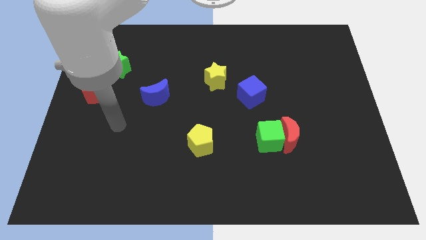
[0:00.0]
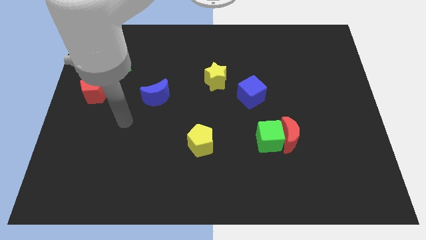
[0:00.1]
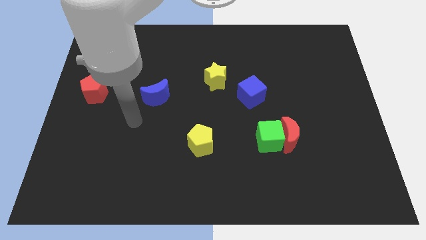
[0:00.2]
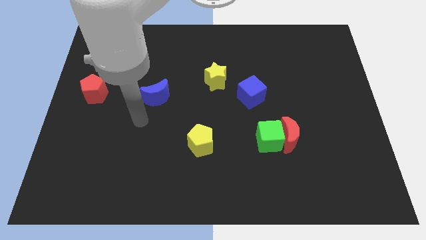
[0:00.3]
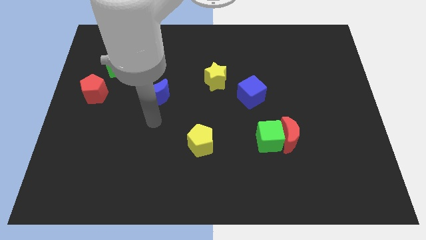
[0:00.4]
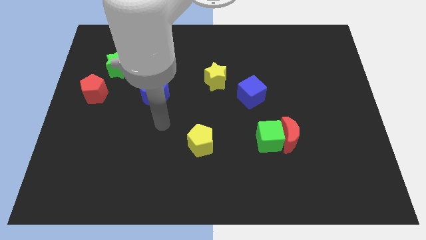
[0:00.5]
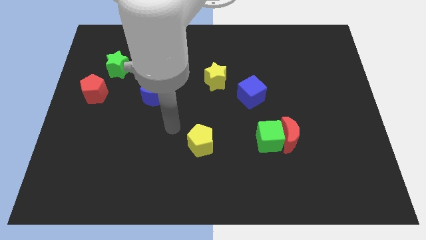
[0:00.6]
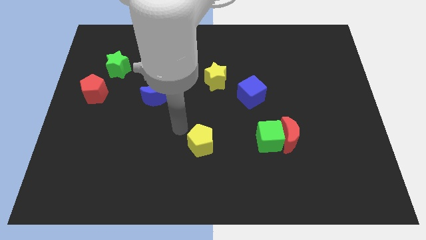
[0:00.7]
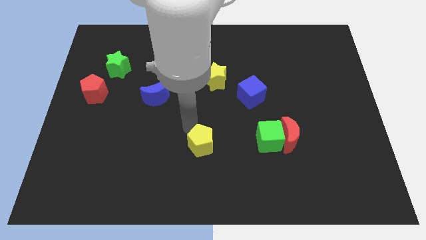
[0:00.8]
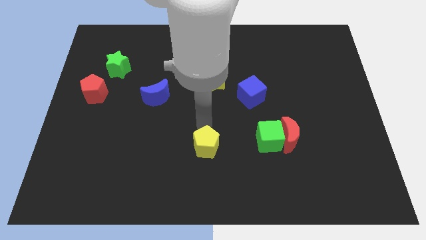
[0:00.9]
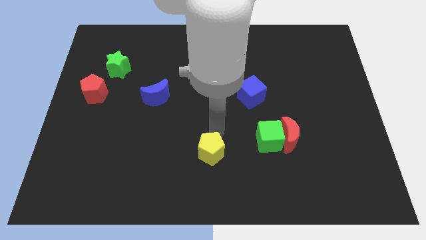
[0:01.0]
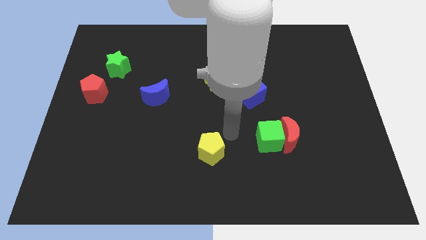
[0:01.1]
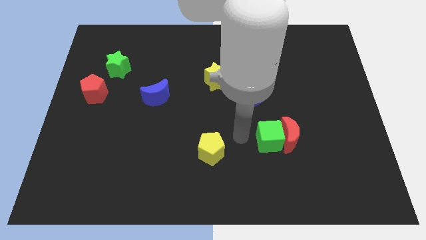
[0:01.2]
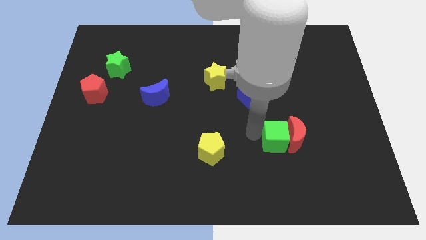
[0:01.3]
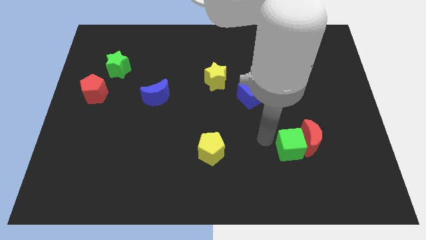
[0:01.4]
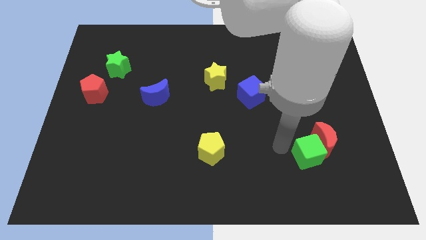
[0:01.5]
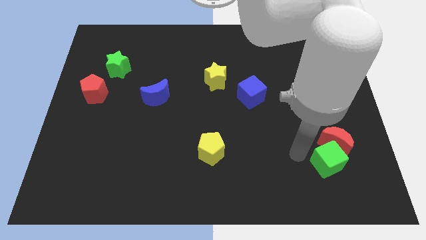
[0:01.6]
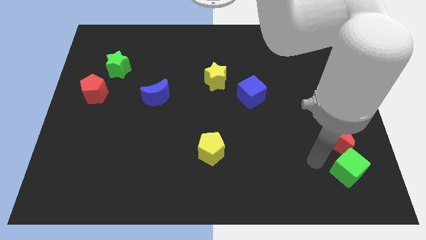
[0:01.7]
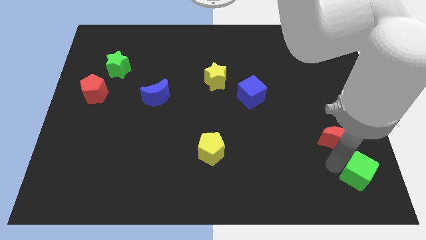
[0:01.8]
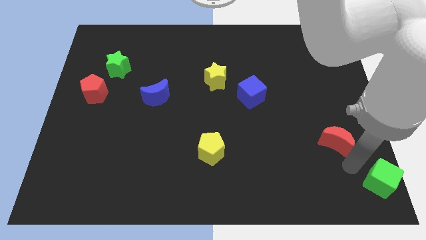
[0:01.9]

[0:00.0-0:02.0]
separate the red moon from the green cube

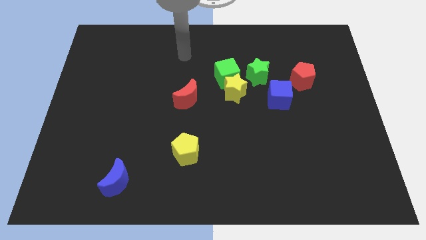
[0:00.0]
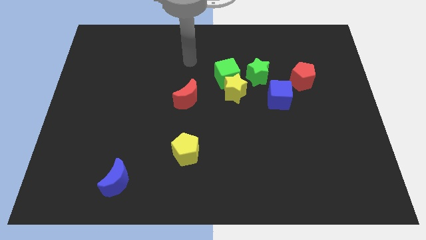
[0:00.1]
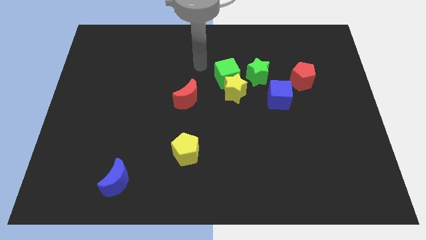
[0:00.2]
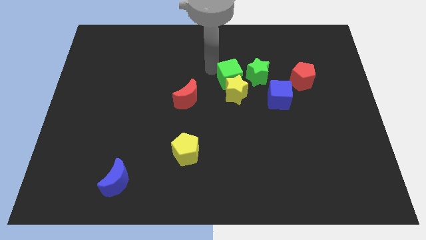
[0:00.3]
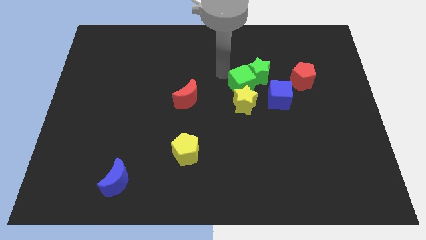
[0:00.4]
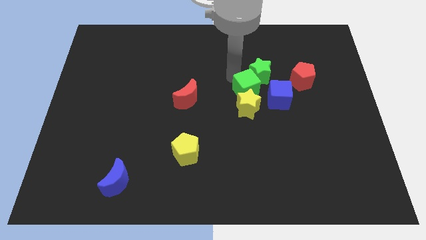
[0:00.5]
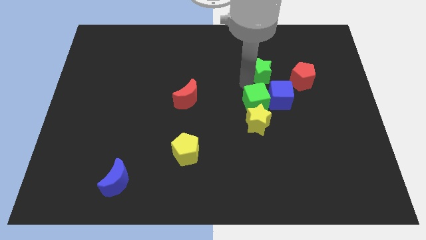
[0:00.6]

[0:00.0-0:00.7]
move the yellow star away from the green cube and green star

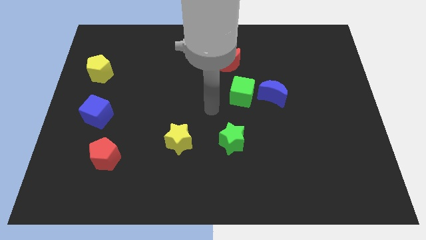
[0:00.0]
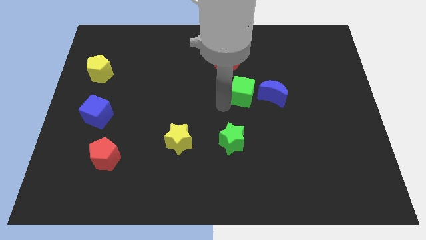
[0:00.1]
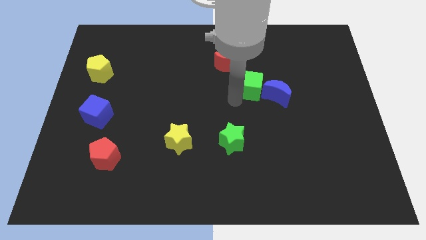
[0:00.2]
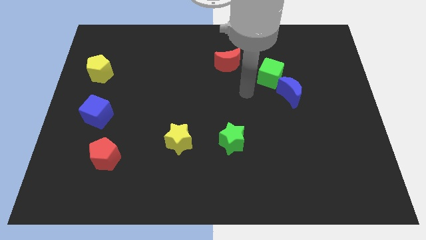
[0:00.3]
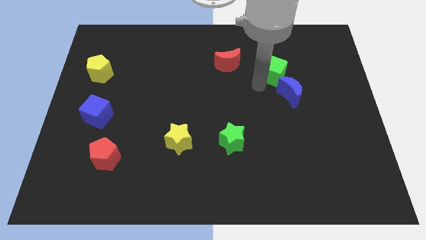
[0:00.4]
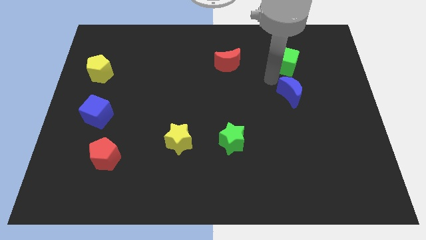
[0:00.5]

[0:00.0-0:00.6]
separate the blue moon from the green cube

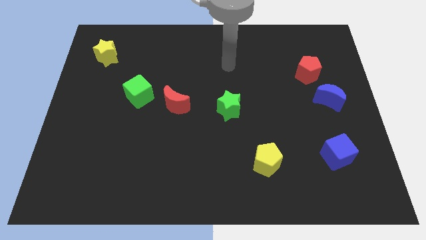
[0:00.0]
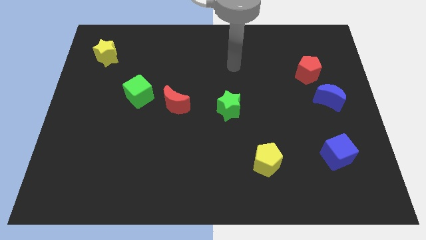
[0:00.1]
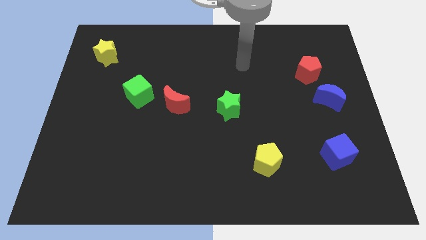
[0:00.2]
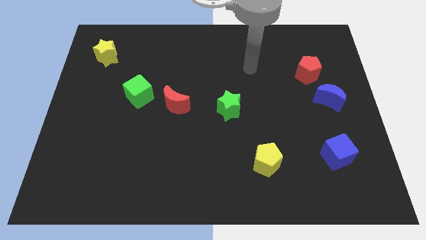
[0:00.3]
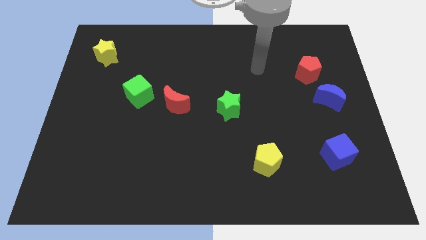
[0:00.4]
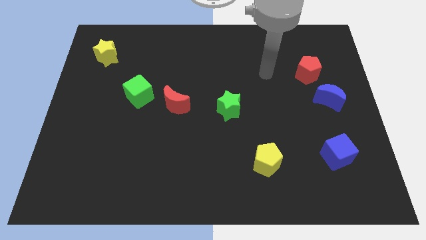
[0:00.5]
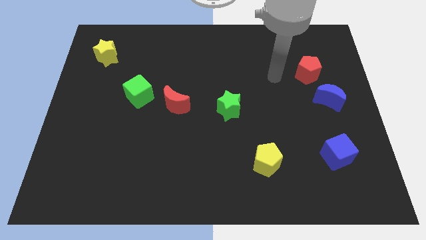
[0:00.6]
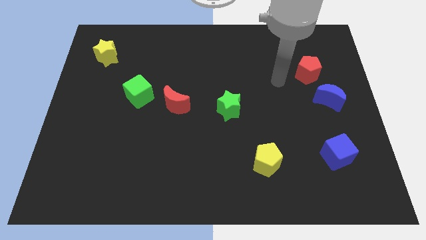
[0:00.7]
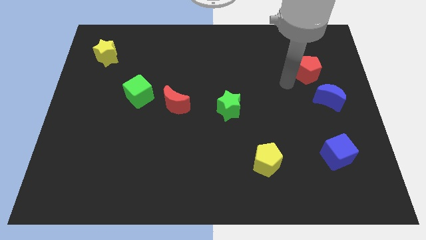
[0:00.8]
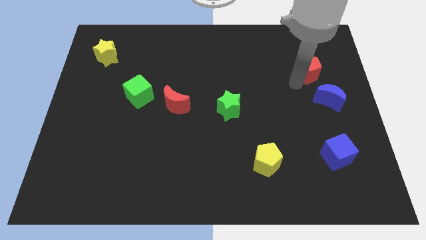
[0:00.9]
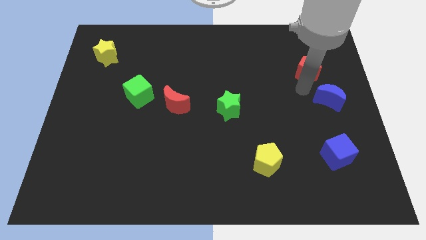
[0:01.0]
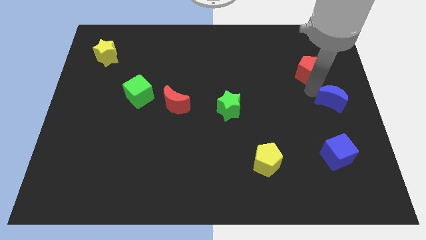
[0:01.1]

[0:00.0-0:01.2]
pull the red pentagon apart from the blue moon

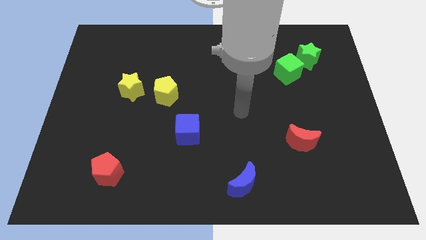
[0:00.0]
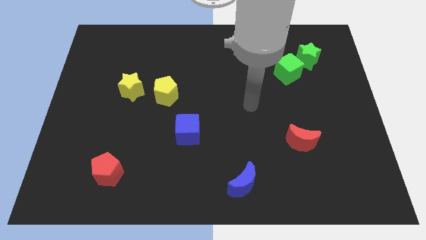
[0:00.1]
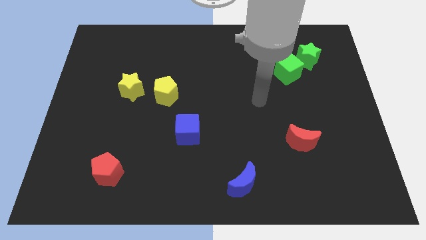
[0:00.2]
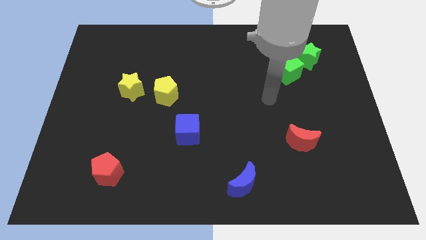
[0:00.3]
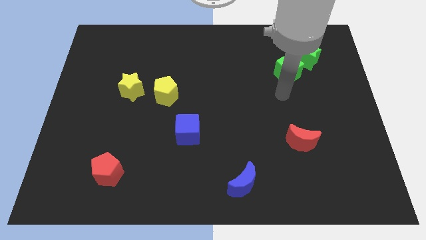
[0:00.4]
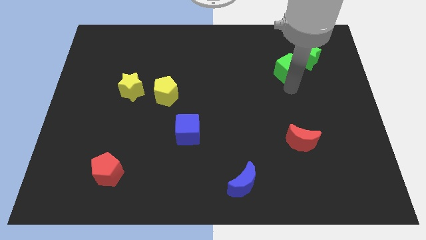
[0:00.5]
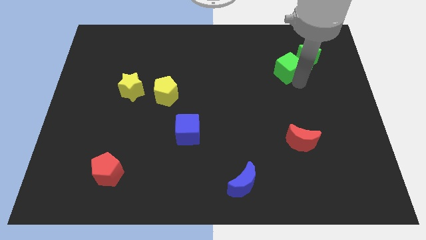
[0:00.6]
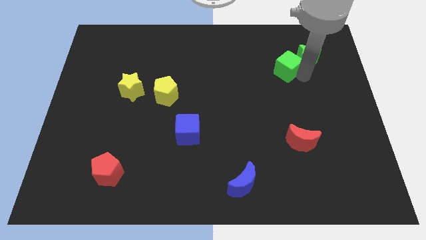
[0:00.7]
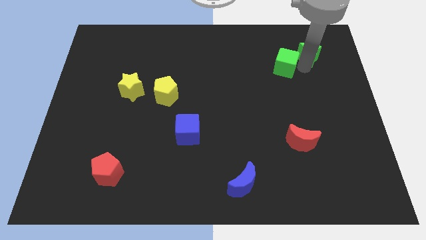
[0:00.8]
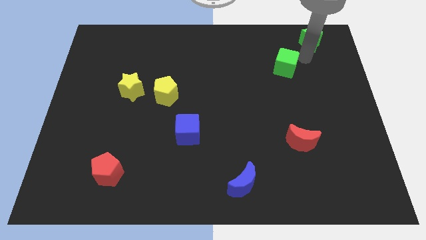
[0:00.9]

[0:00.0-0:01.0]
separate the green cube from the green star

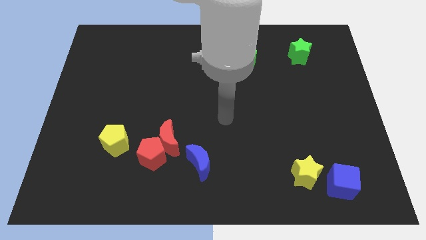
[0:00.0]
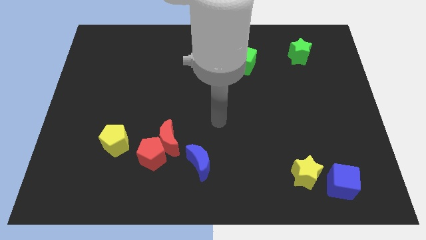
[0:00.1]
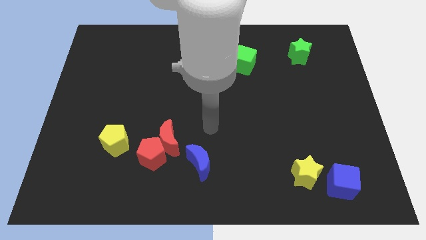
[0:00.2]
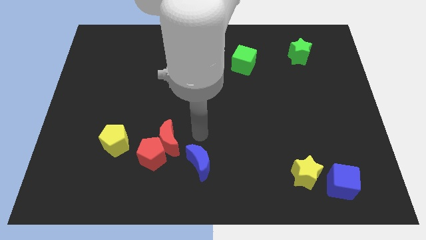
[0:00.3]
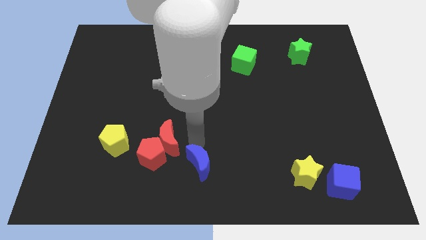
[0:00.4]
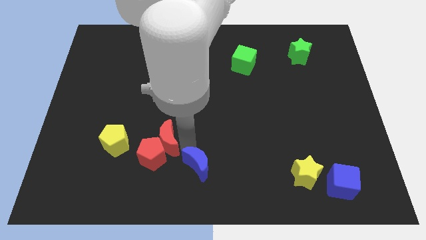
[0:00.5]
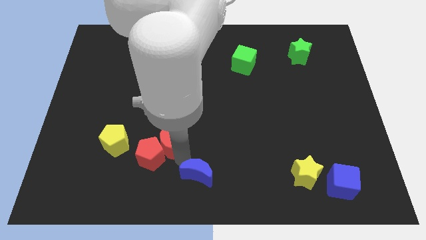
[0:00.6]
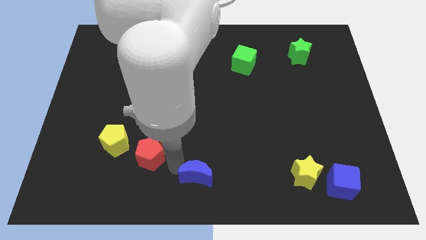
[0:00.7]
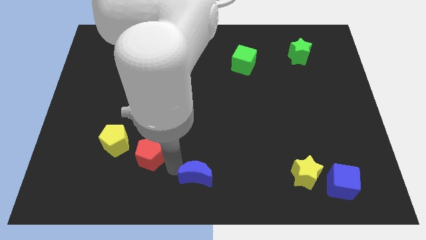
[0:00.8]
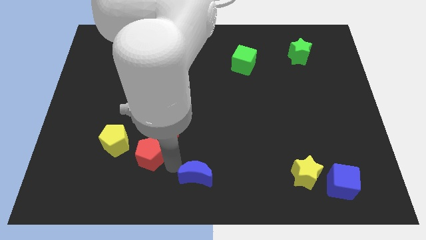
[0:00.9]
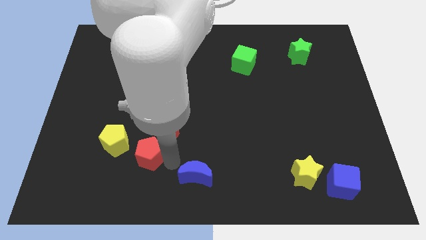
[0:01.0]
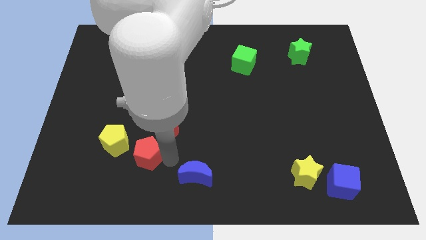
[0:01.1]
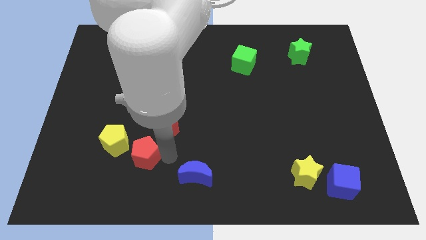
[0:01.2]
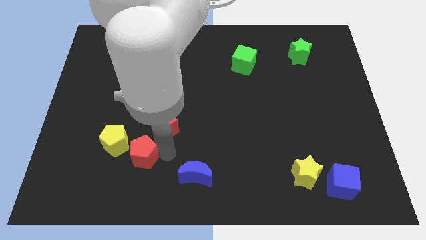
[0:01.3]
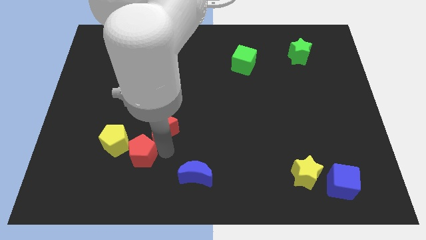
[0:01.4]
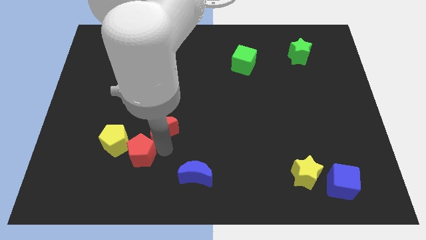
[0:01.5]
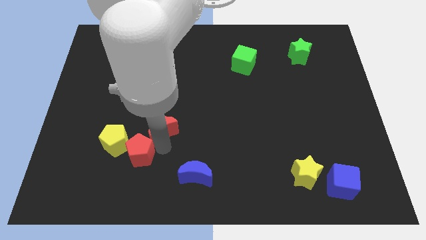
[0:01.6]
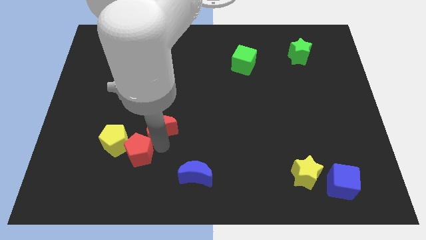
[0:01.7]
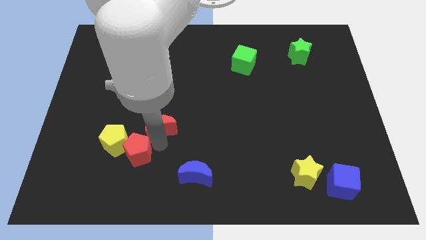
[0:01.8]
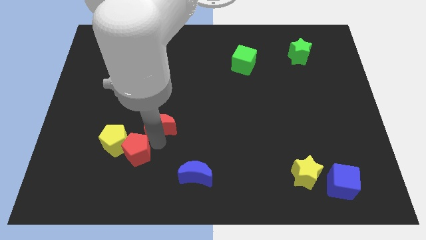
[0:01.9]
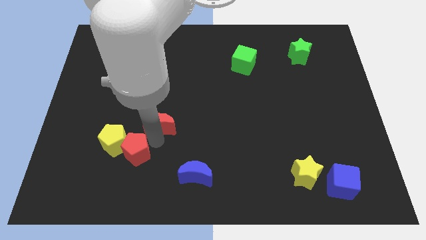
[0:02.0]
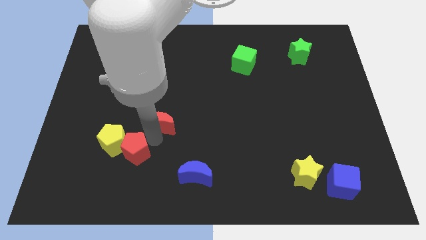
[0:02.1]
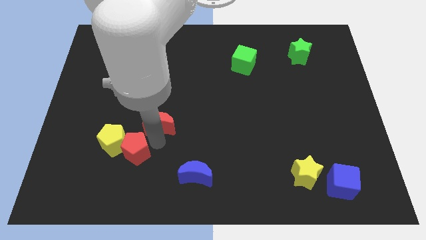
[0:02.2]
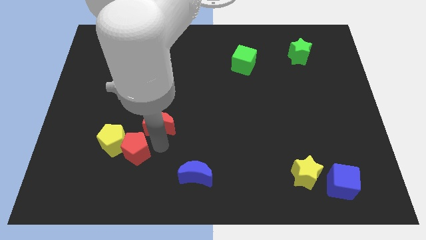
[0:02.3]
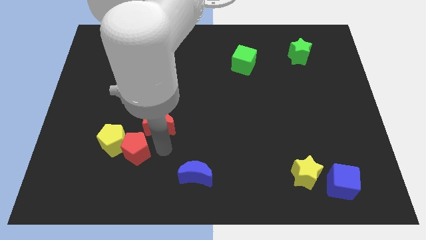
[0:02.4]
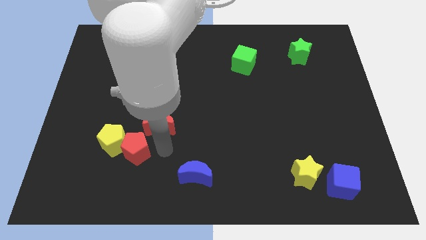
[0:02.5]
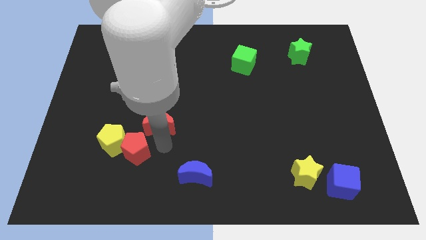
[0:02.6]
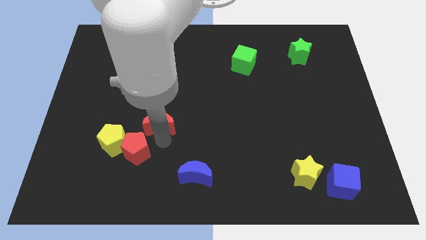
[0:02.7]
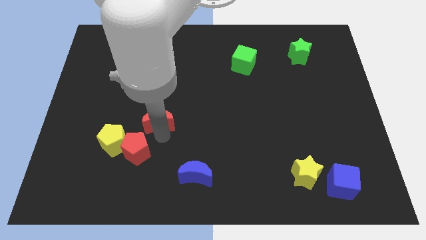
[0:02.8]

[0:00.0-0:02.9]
move the red moon away from the red pentagon and blue moon

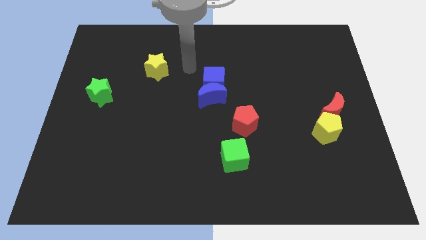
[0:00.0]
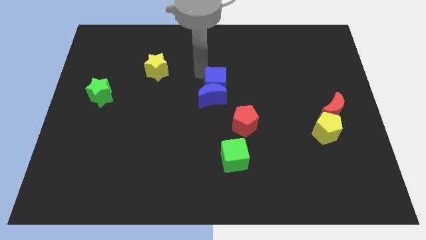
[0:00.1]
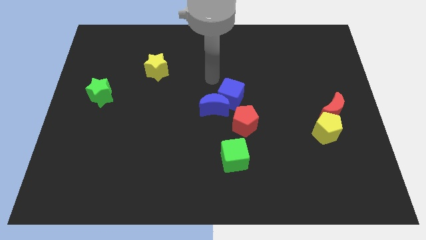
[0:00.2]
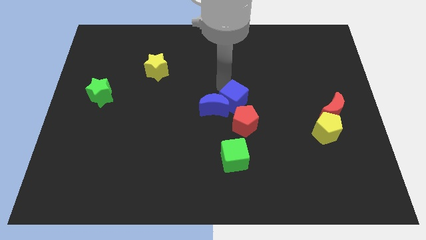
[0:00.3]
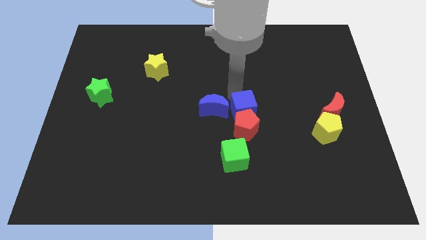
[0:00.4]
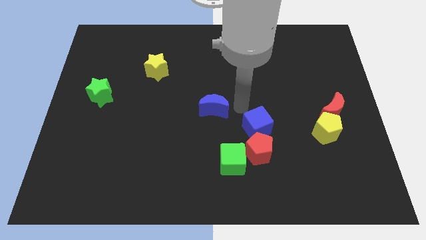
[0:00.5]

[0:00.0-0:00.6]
move the blue moon away from the blue cube

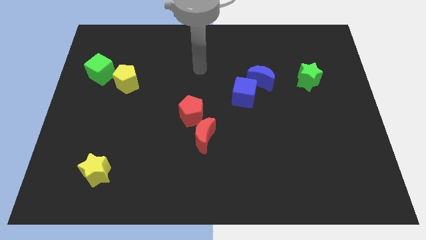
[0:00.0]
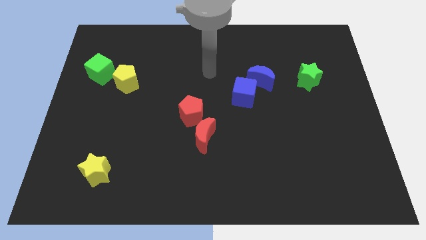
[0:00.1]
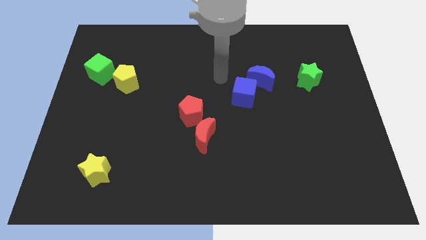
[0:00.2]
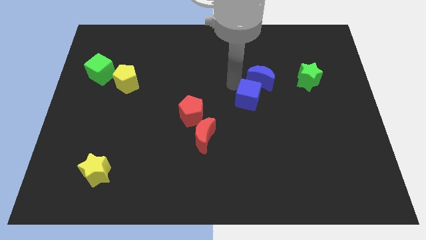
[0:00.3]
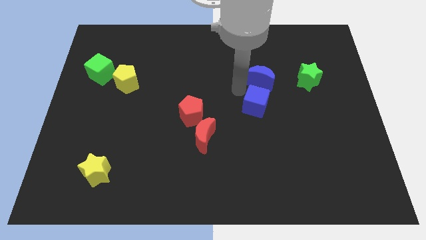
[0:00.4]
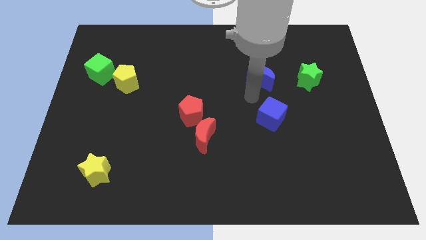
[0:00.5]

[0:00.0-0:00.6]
pull the blue moon apart from the blue cube
